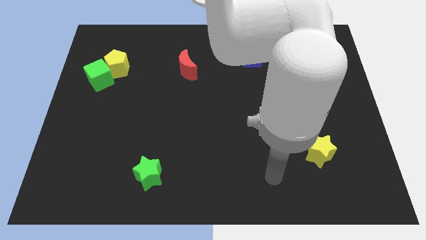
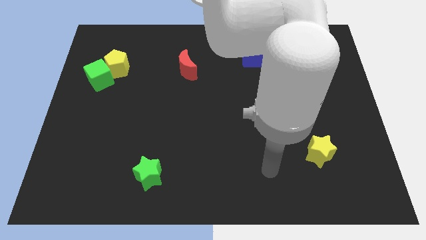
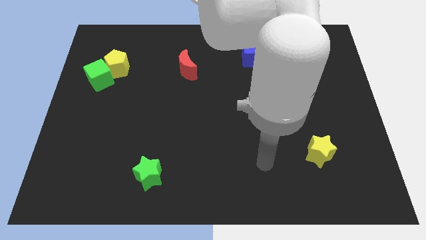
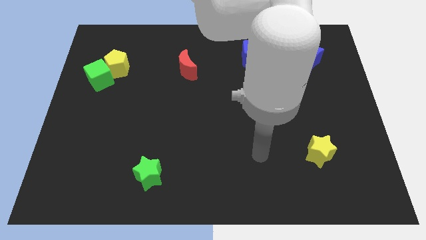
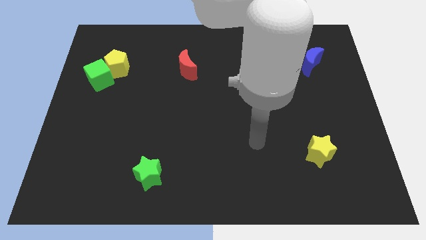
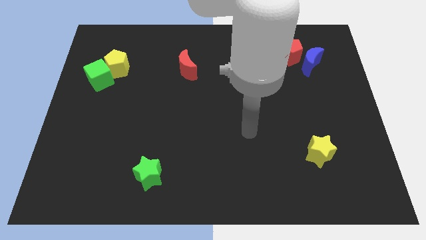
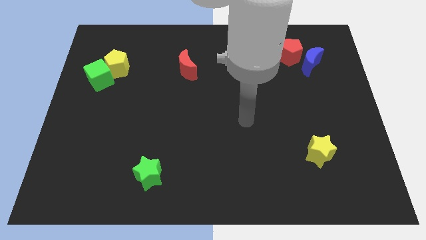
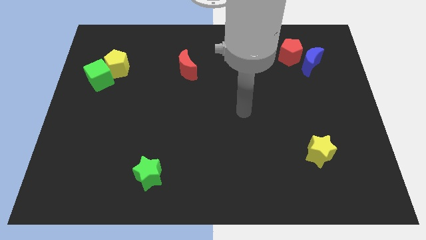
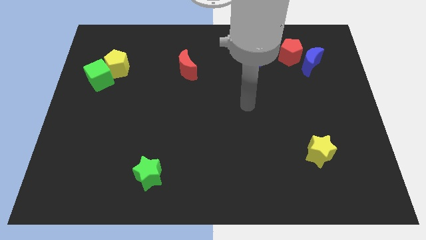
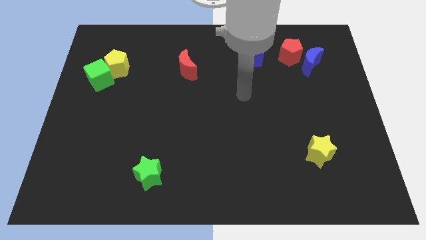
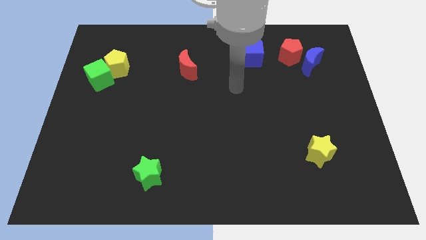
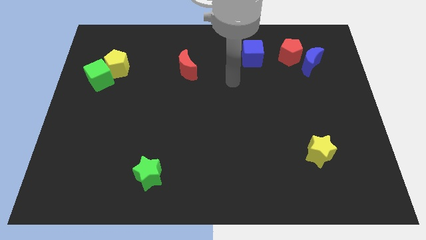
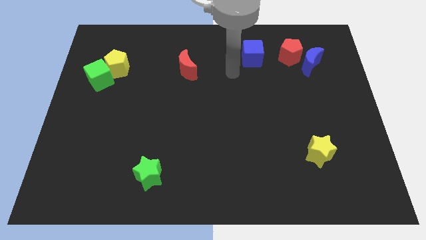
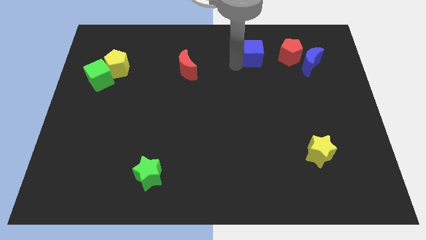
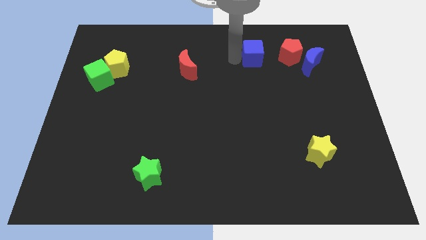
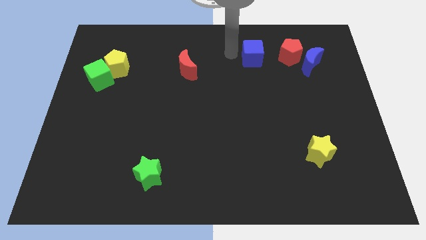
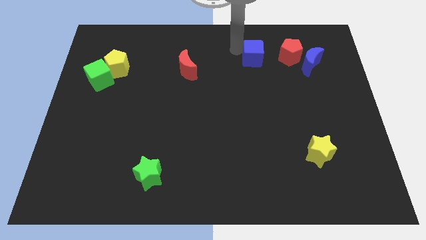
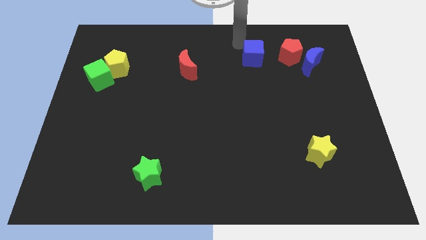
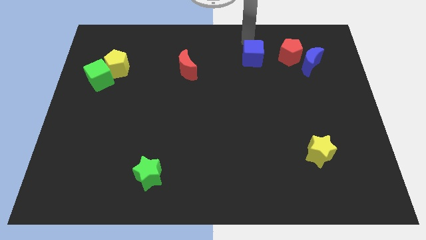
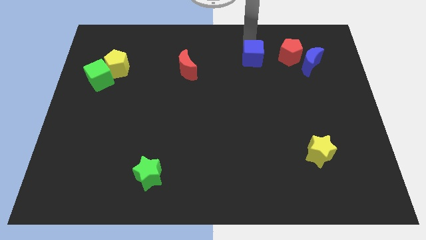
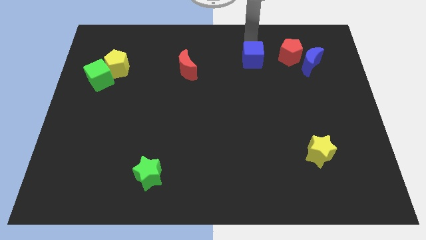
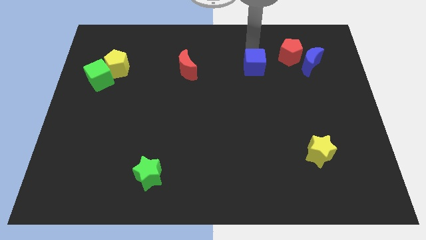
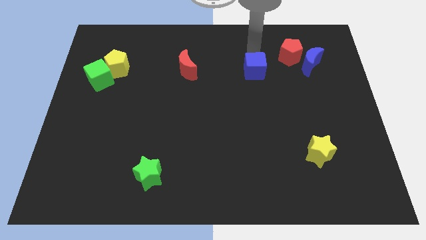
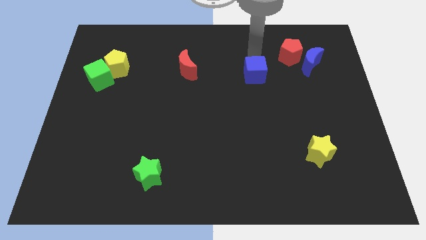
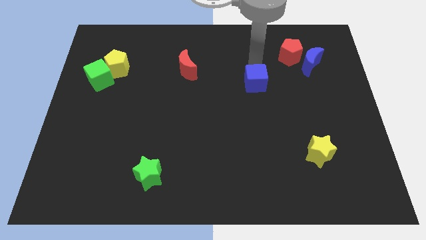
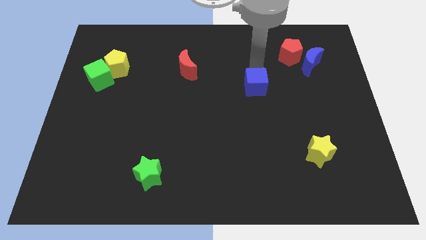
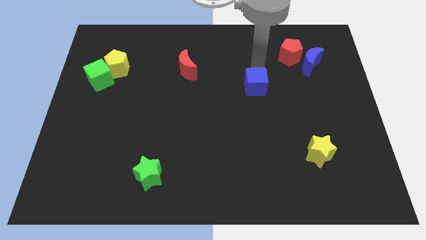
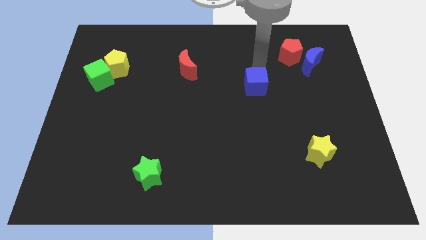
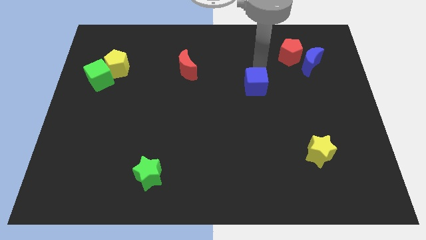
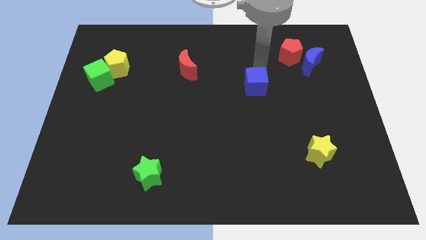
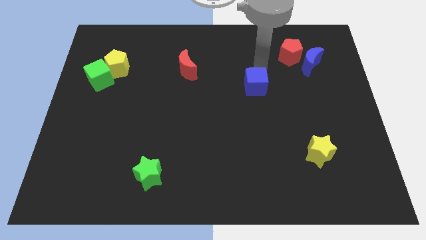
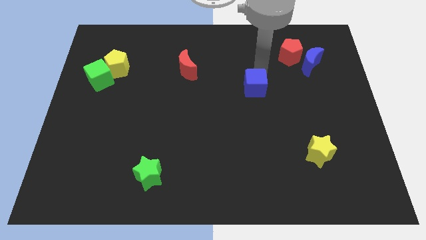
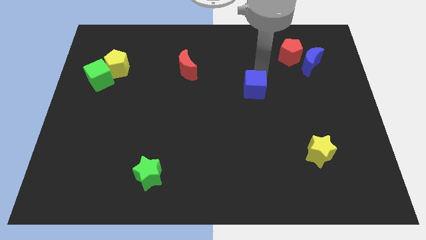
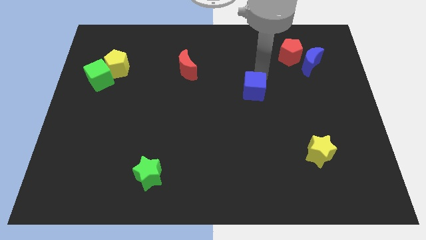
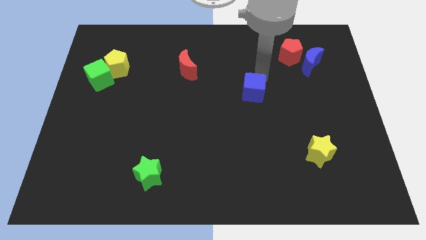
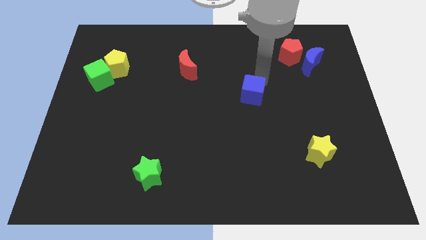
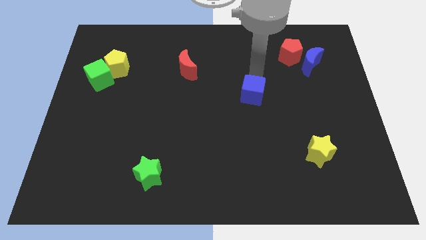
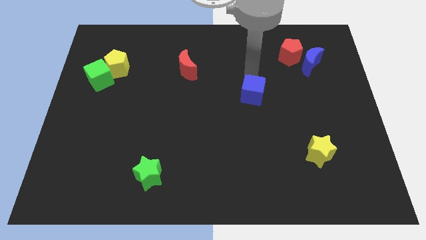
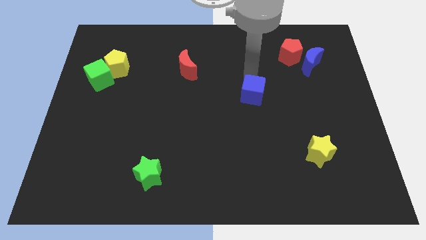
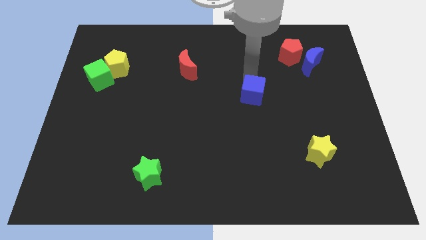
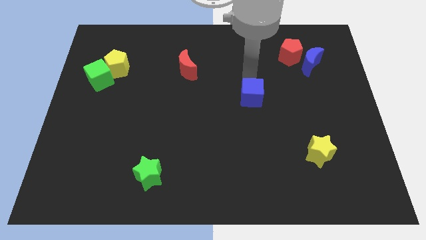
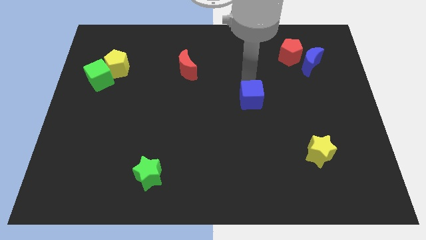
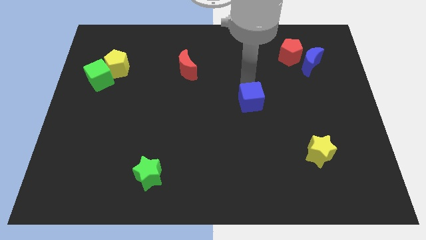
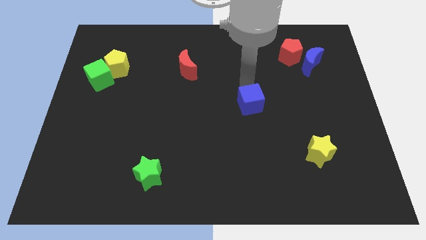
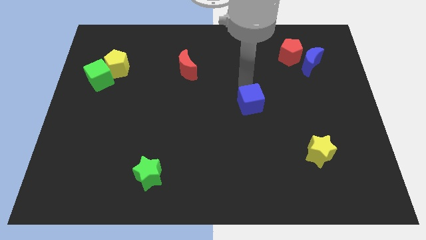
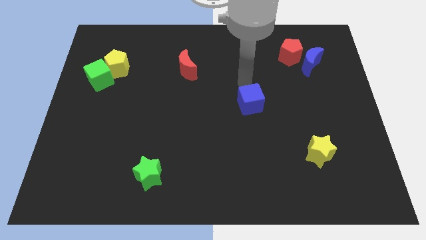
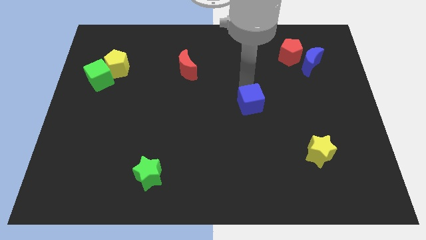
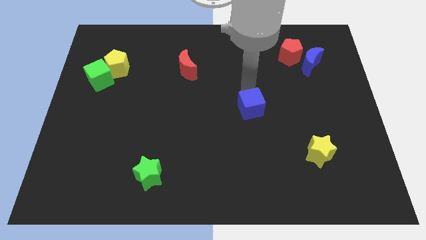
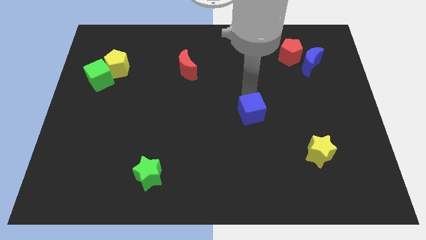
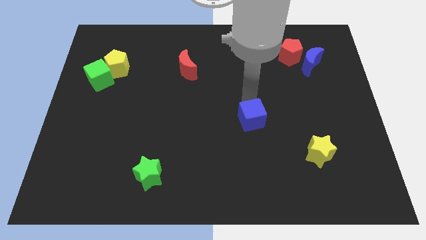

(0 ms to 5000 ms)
move the blue cube downwards

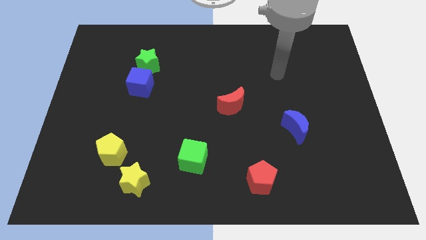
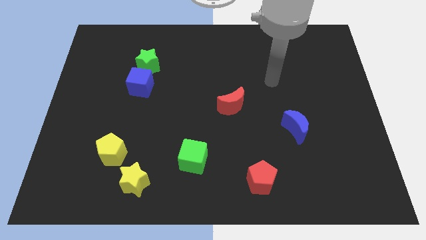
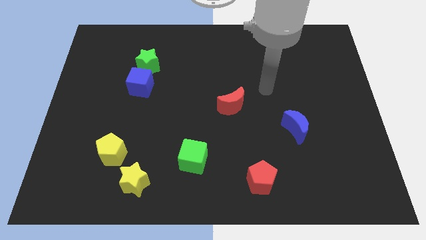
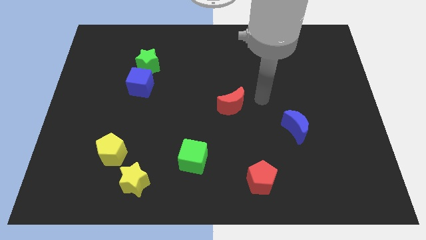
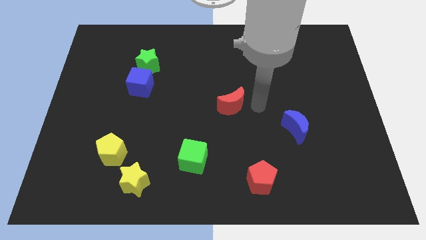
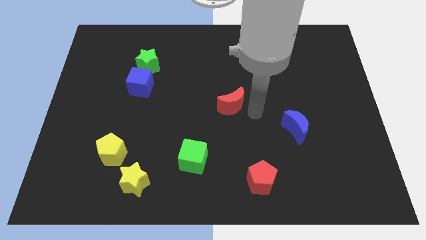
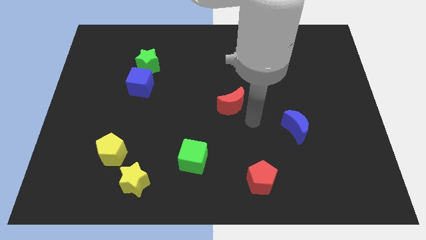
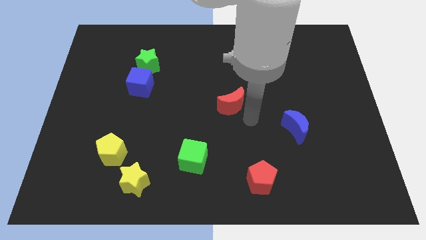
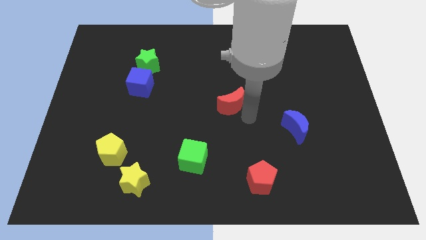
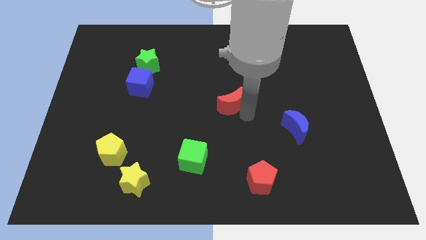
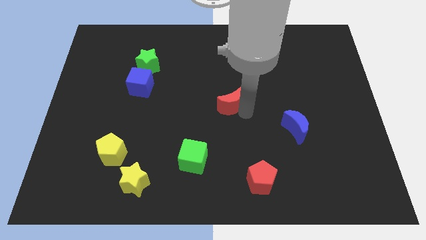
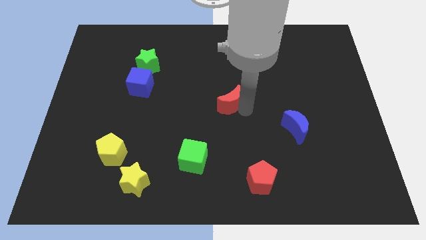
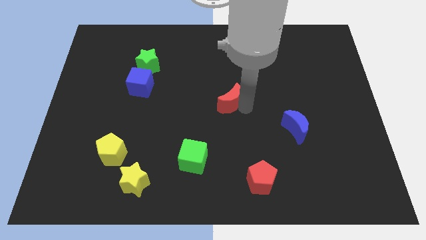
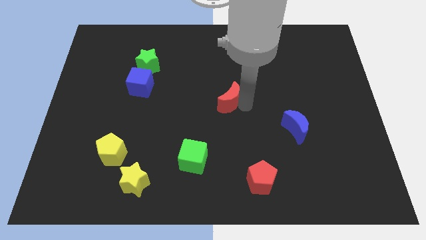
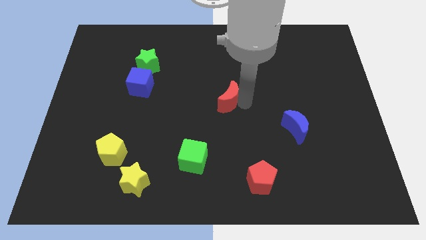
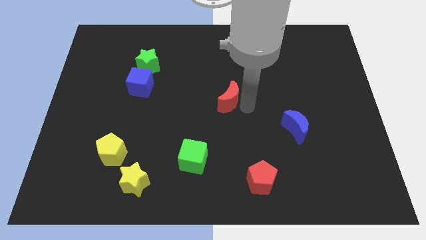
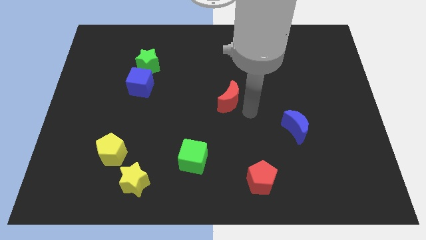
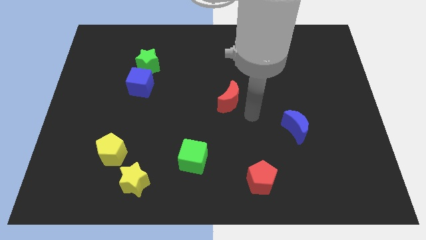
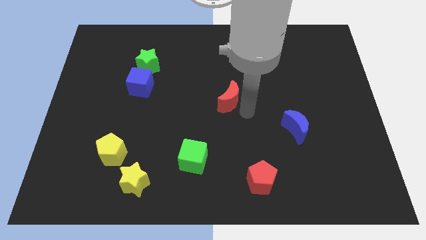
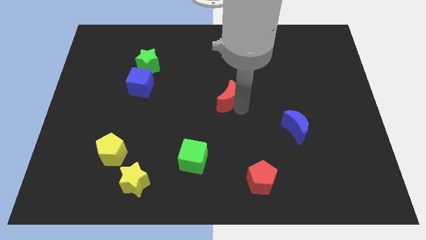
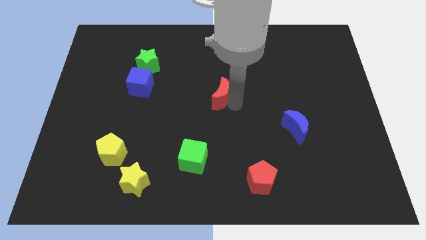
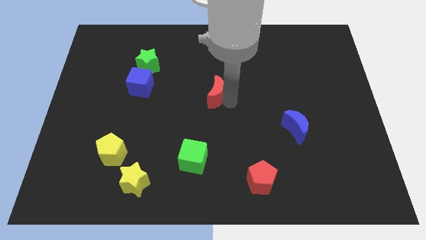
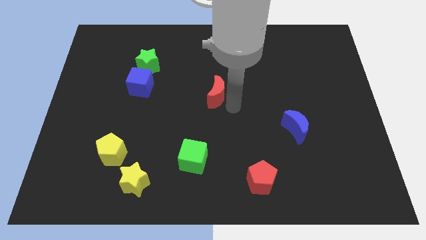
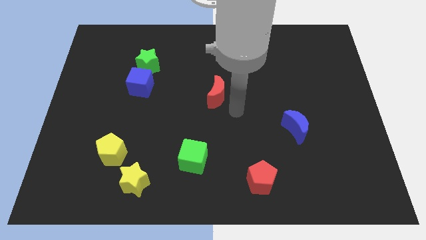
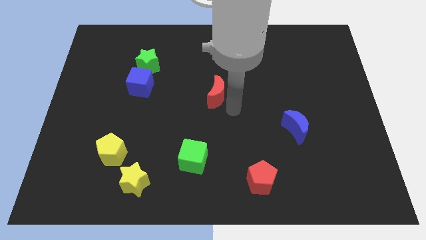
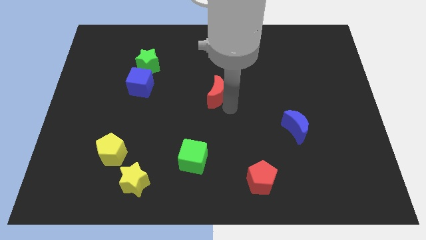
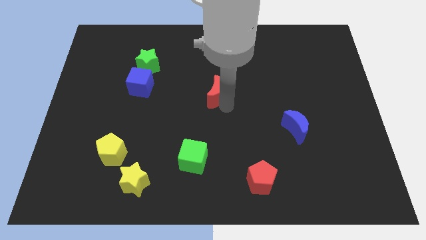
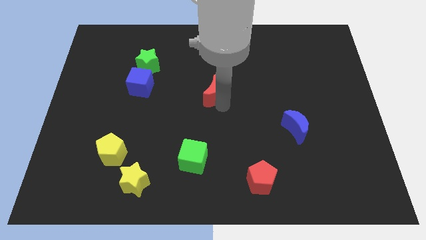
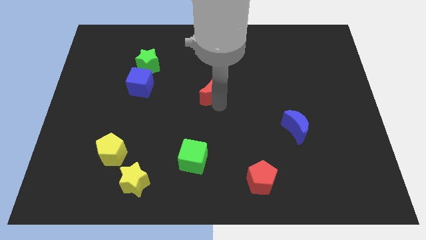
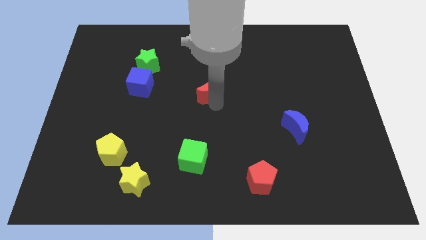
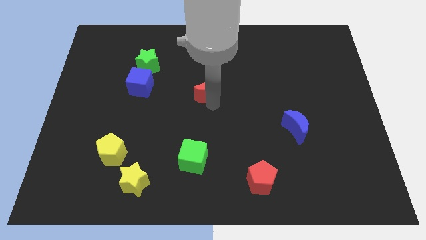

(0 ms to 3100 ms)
push the red moon a little up and left diagonally

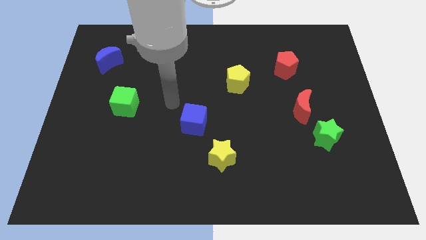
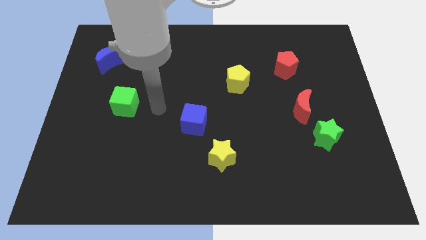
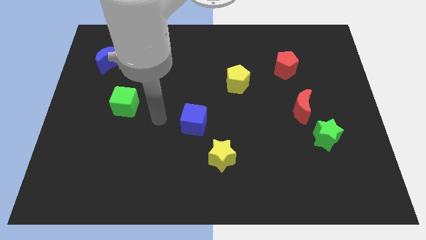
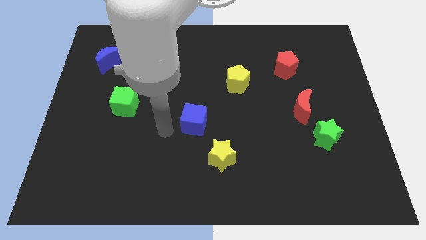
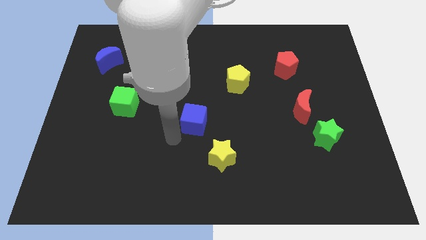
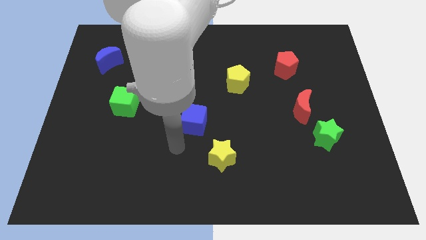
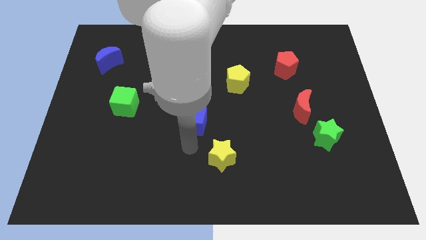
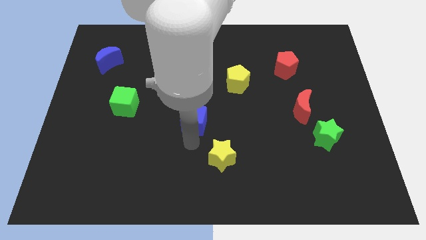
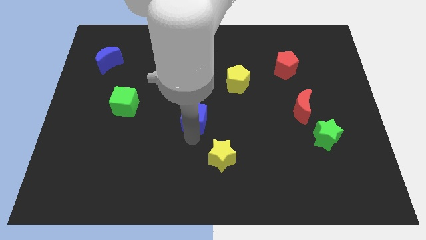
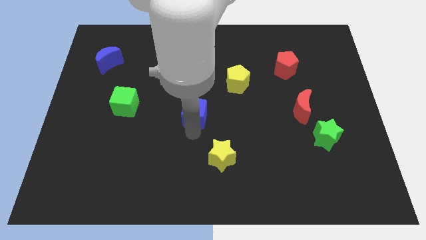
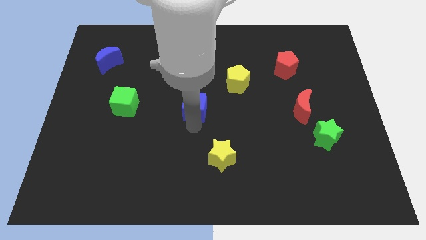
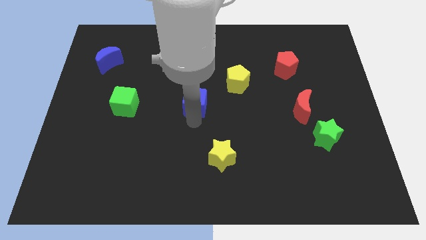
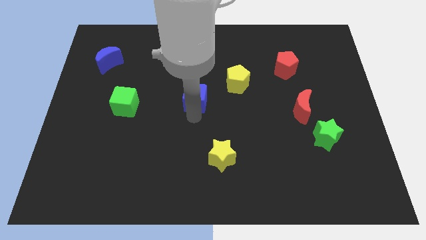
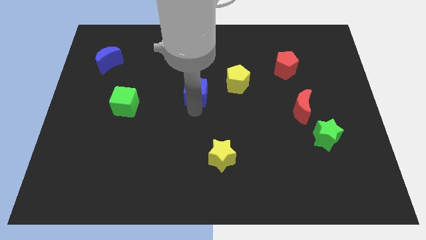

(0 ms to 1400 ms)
push the blue cube up a little
